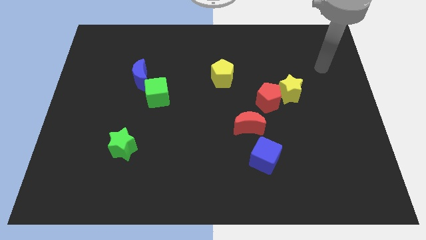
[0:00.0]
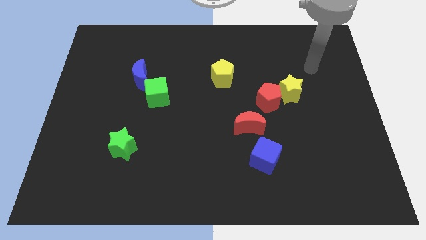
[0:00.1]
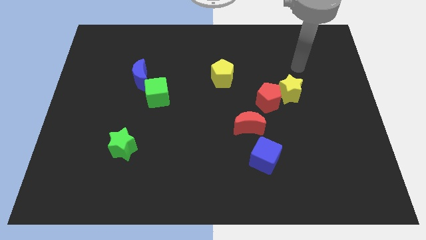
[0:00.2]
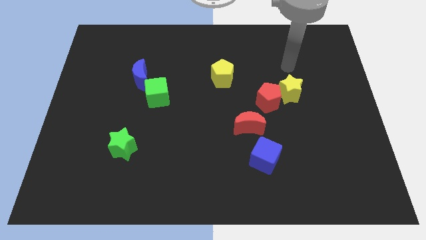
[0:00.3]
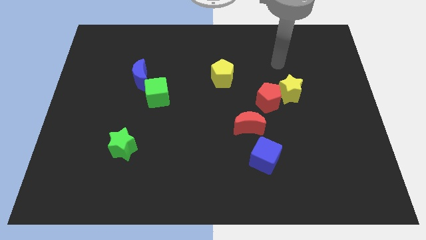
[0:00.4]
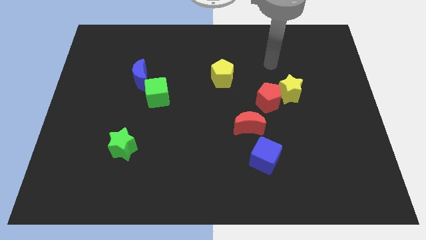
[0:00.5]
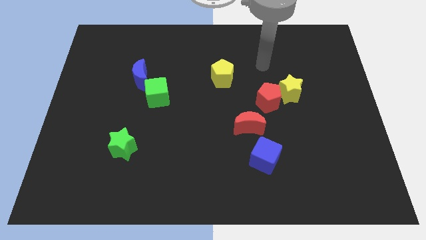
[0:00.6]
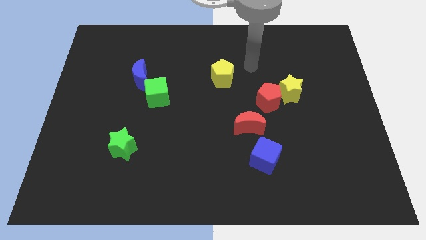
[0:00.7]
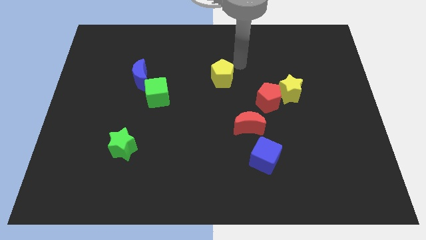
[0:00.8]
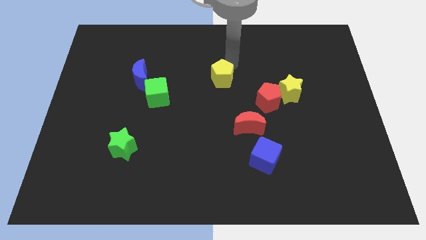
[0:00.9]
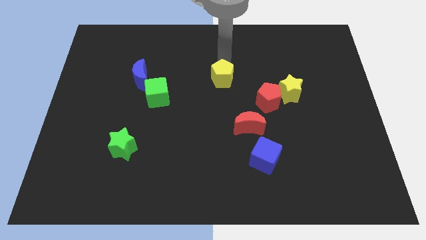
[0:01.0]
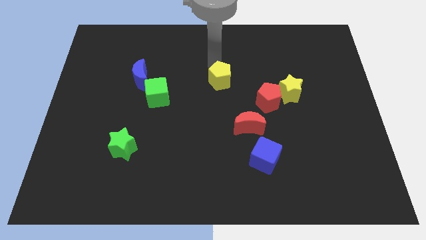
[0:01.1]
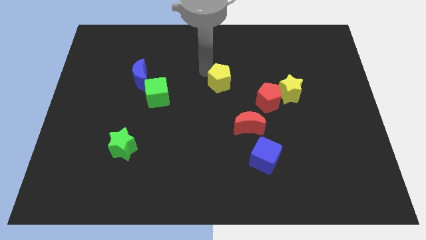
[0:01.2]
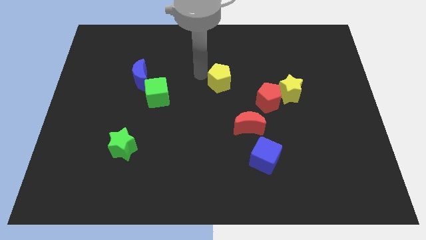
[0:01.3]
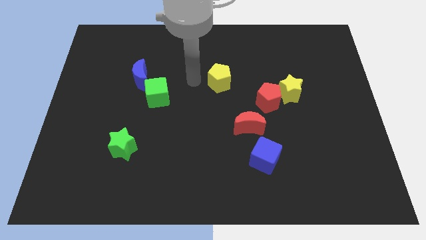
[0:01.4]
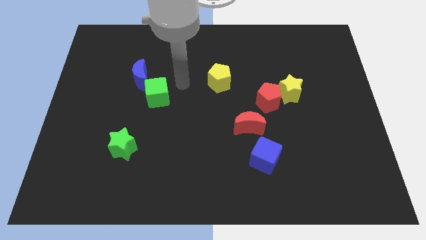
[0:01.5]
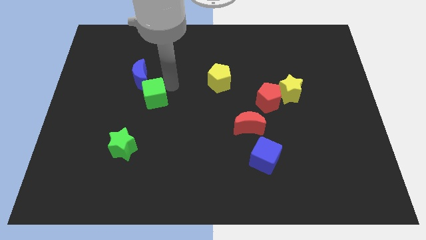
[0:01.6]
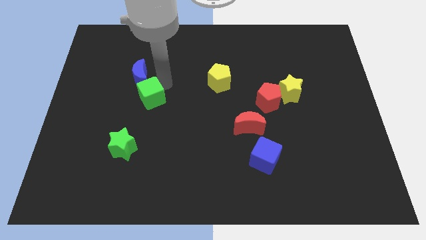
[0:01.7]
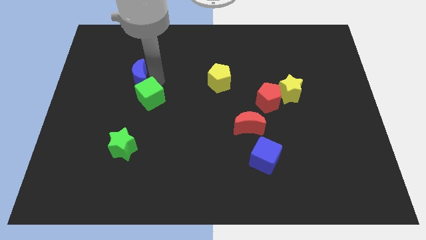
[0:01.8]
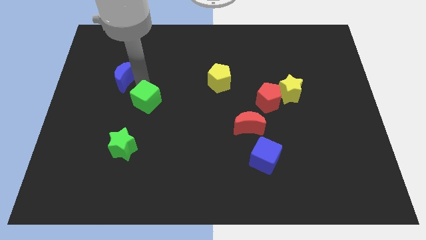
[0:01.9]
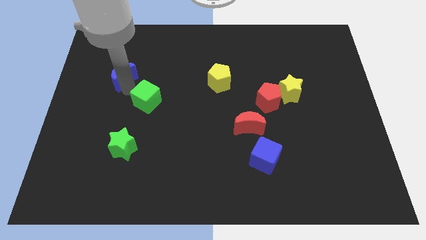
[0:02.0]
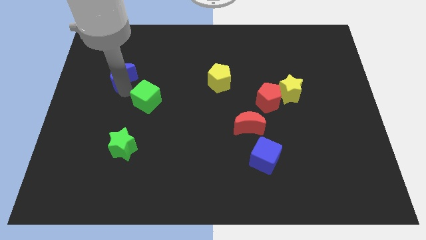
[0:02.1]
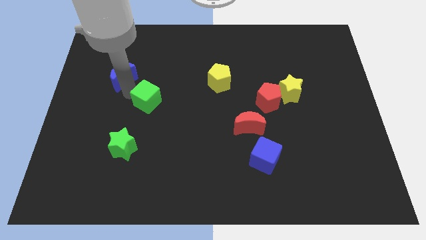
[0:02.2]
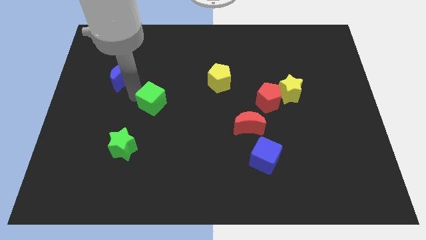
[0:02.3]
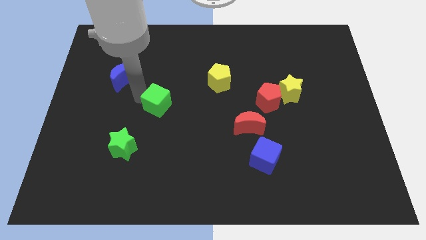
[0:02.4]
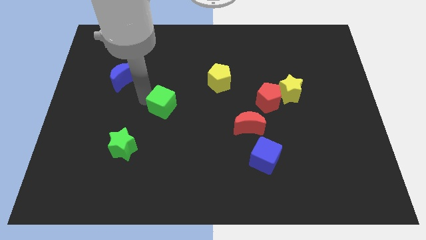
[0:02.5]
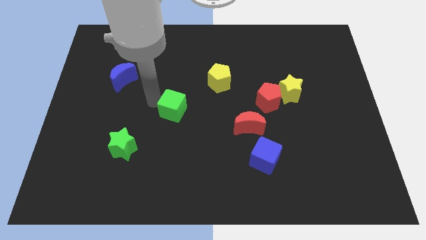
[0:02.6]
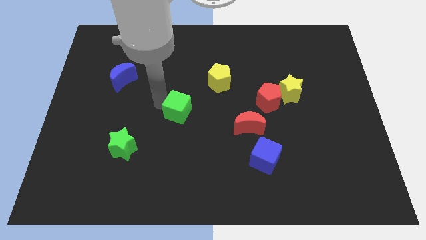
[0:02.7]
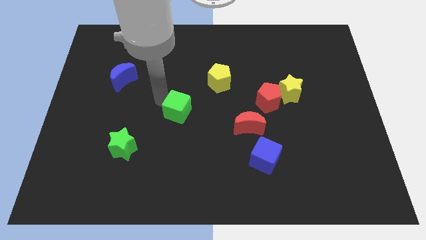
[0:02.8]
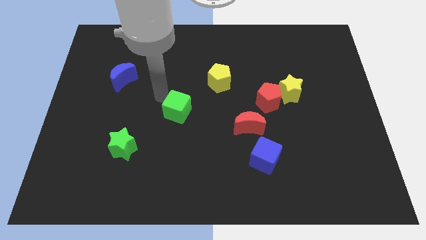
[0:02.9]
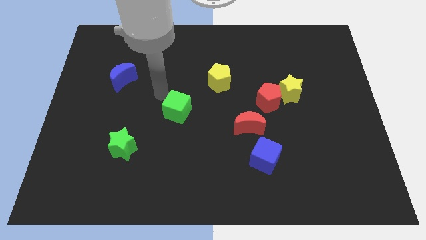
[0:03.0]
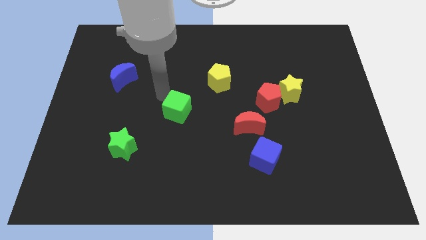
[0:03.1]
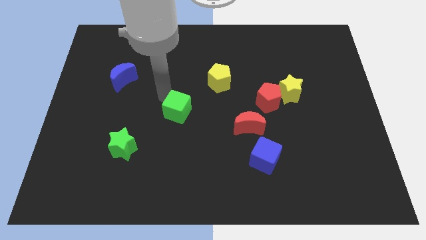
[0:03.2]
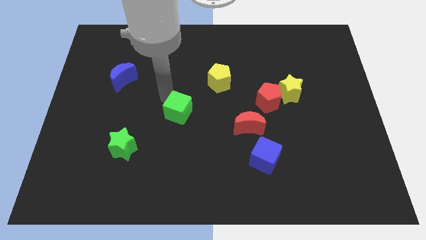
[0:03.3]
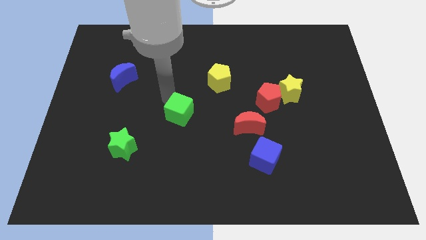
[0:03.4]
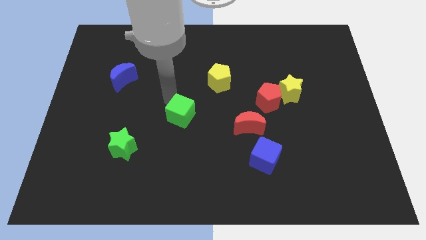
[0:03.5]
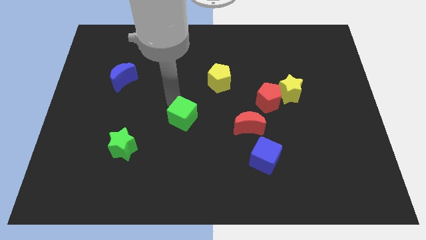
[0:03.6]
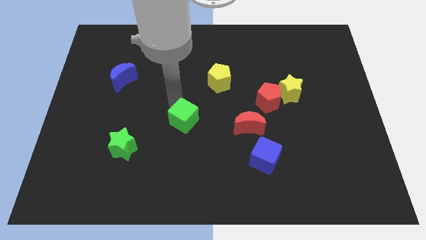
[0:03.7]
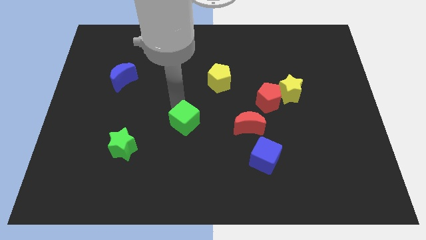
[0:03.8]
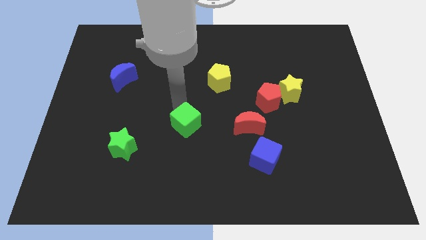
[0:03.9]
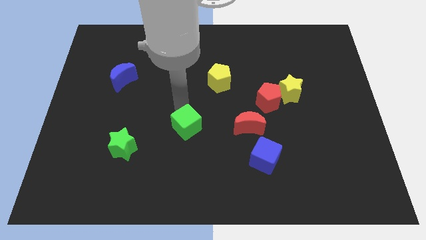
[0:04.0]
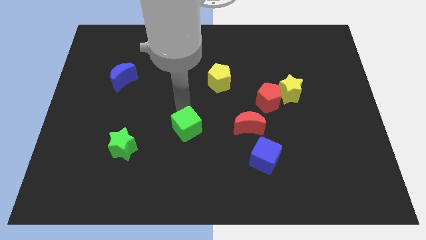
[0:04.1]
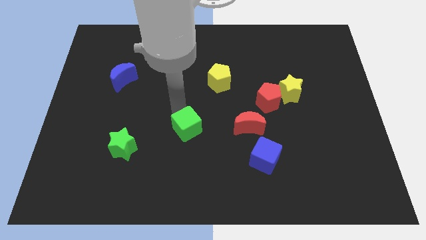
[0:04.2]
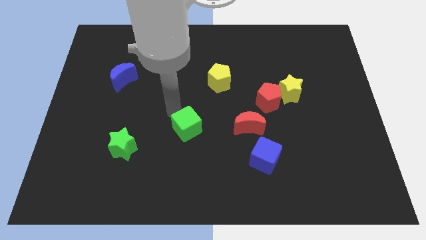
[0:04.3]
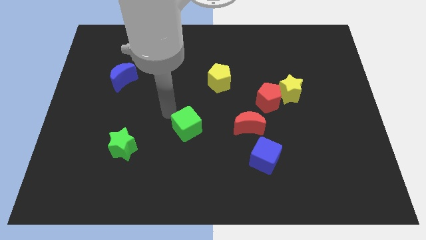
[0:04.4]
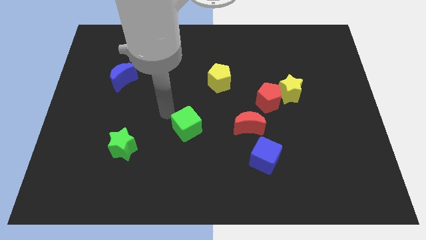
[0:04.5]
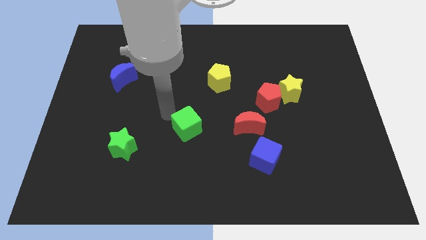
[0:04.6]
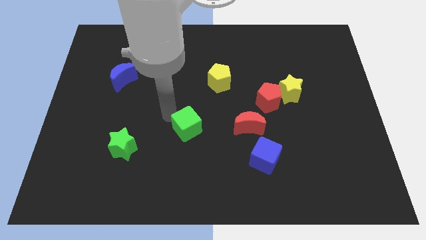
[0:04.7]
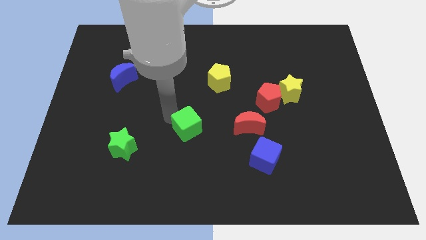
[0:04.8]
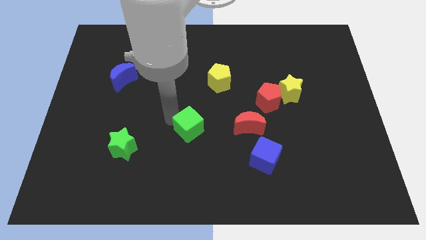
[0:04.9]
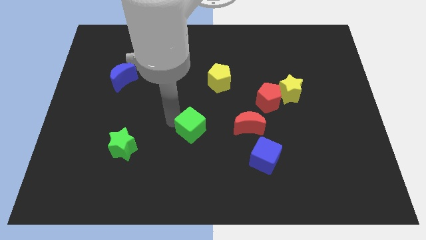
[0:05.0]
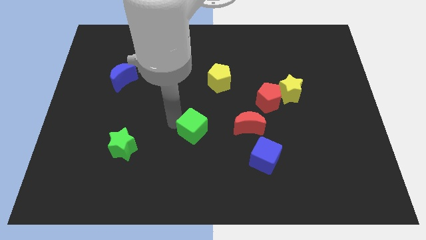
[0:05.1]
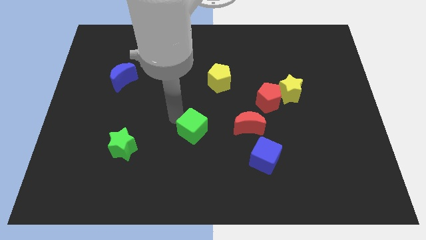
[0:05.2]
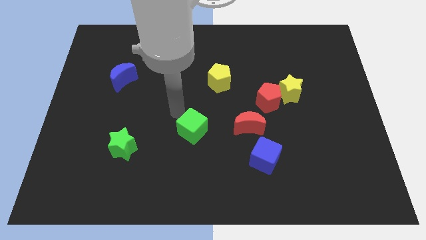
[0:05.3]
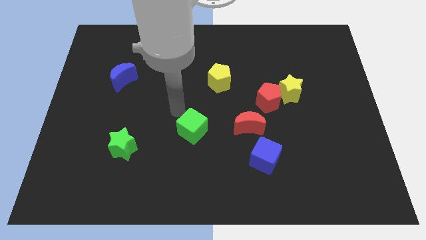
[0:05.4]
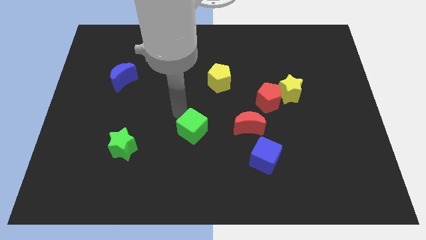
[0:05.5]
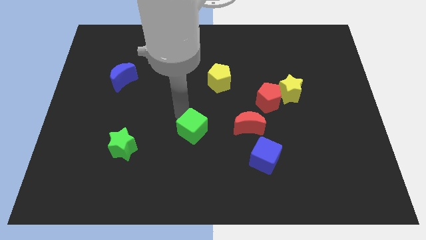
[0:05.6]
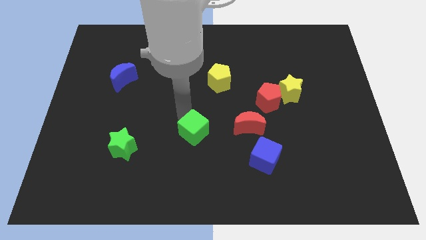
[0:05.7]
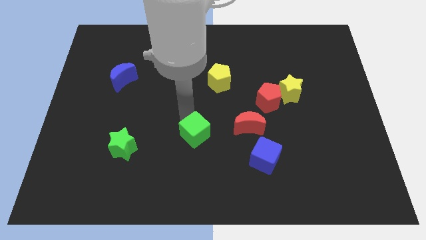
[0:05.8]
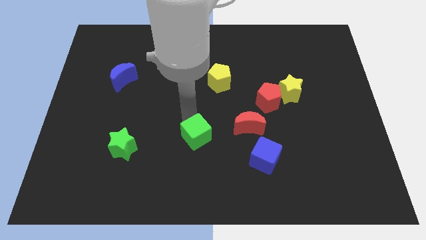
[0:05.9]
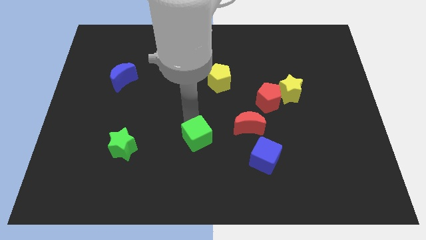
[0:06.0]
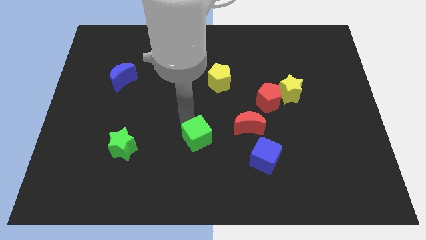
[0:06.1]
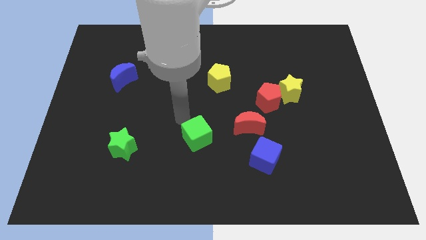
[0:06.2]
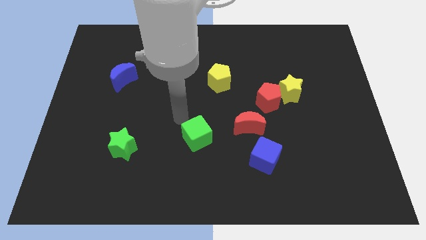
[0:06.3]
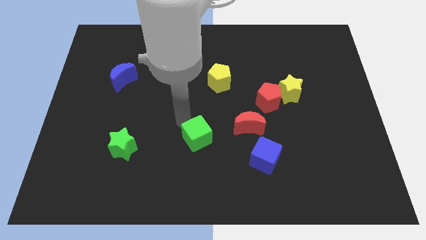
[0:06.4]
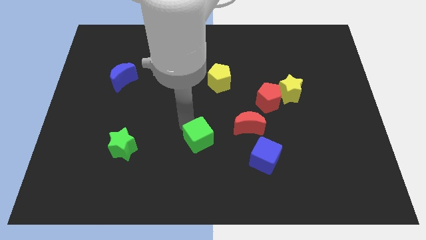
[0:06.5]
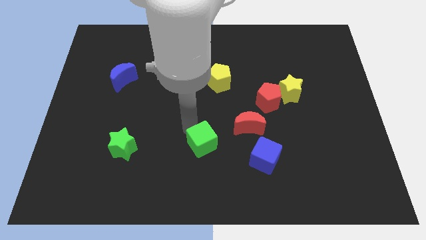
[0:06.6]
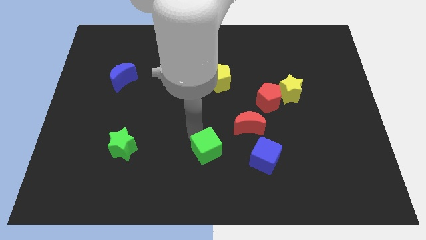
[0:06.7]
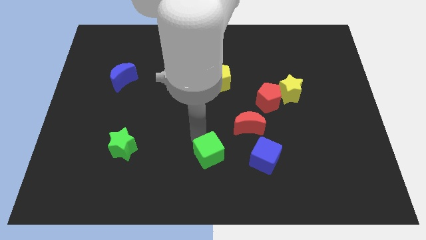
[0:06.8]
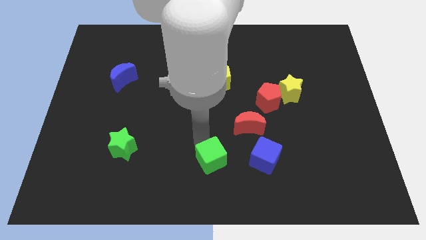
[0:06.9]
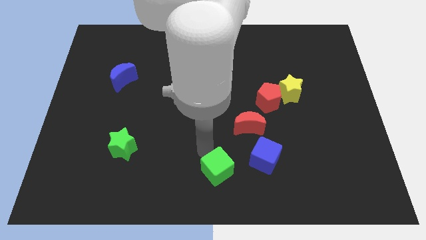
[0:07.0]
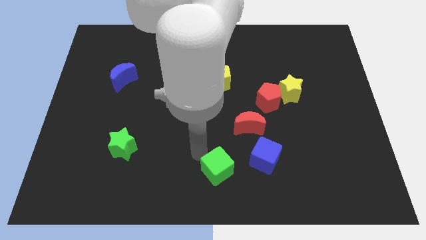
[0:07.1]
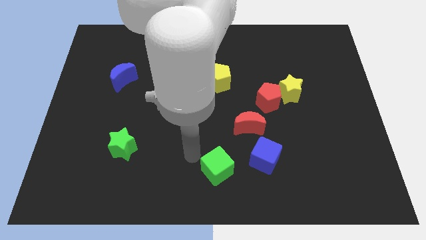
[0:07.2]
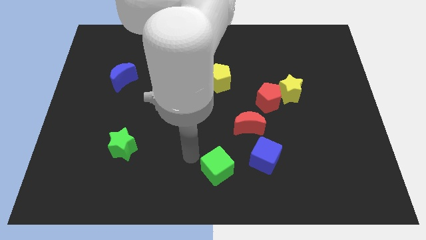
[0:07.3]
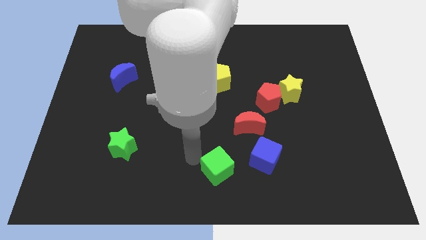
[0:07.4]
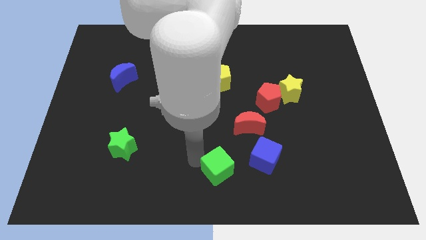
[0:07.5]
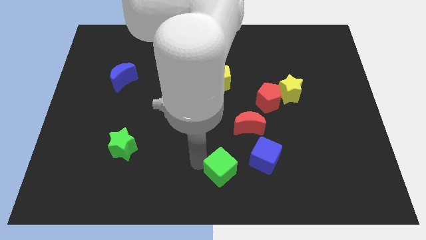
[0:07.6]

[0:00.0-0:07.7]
slide the green cube to the bottom left of the blue cube
